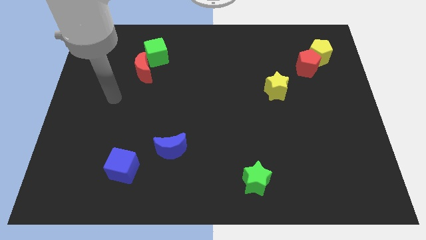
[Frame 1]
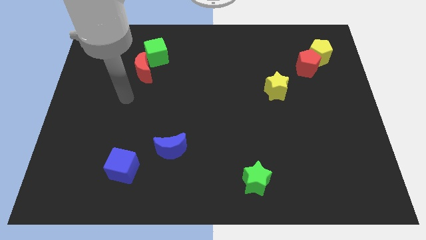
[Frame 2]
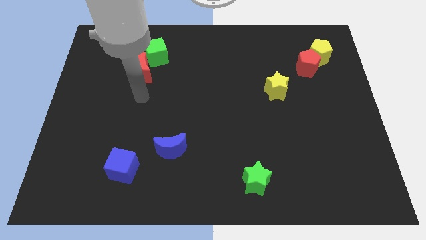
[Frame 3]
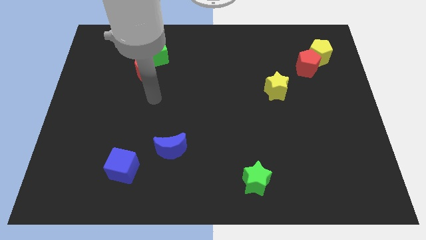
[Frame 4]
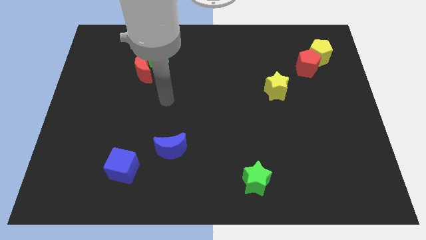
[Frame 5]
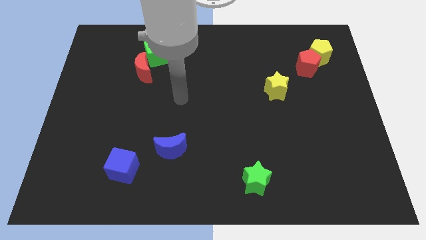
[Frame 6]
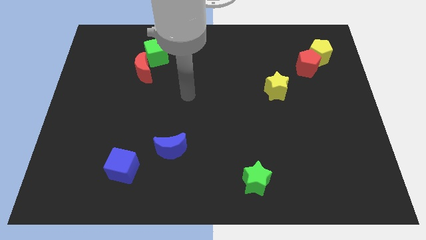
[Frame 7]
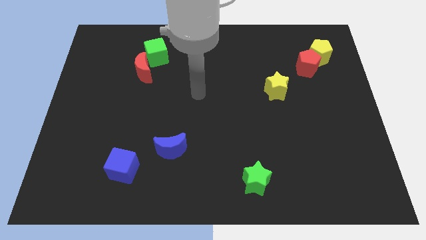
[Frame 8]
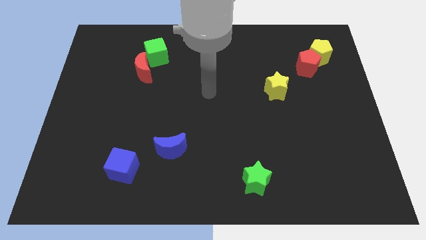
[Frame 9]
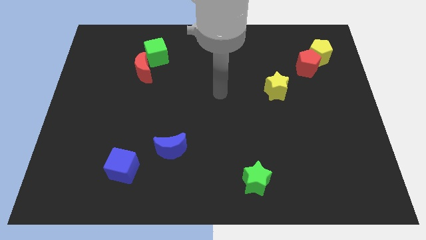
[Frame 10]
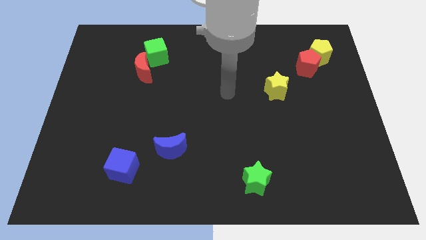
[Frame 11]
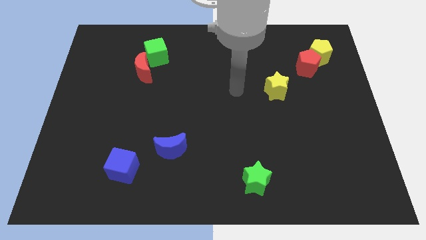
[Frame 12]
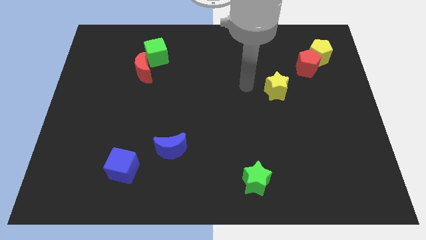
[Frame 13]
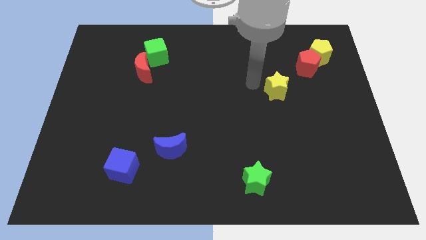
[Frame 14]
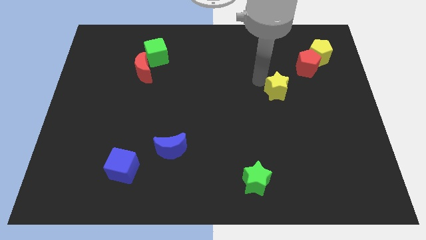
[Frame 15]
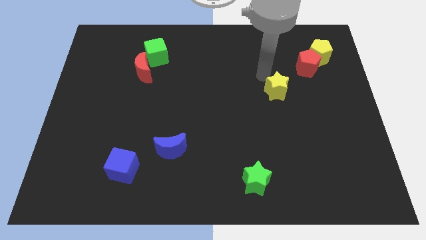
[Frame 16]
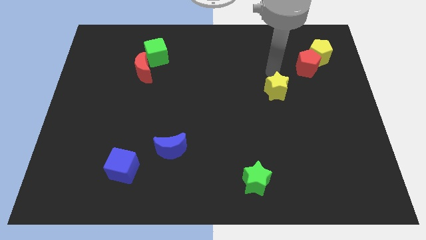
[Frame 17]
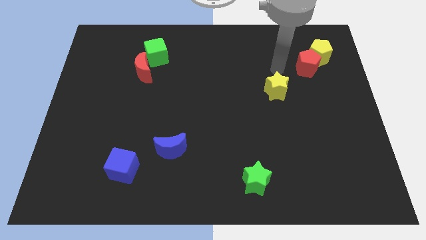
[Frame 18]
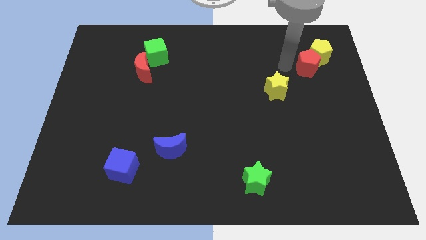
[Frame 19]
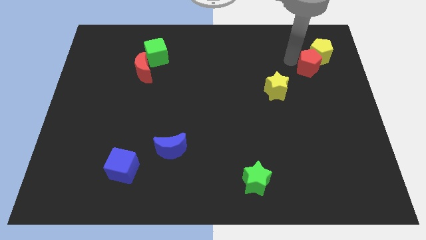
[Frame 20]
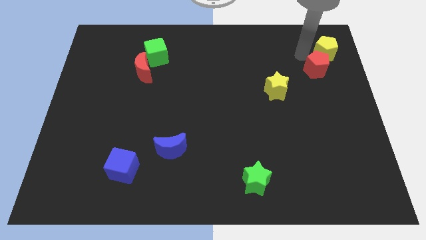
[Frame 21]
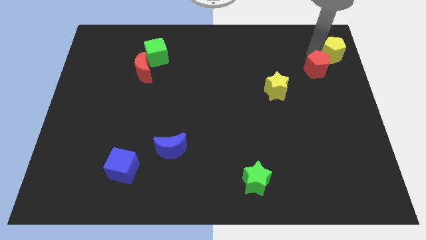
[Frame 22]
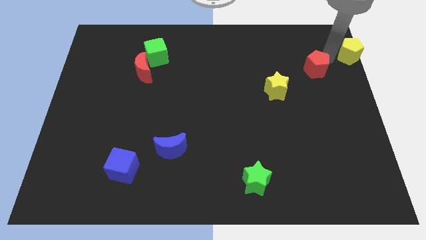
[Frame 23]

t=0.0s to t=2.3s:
move the red pentagon away from the yellow pentagon

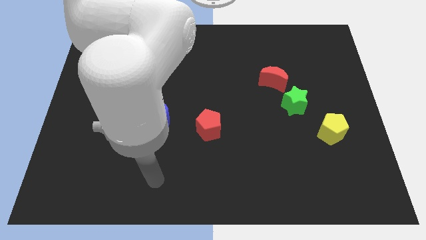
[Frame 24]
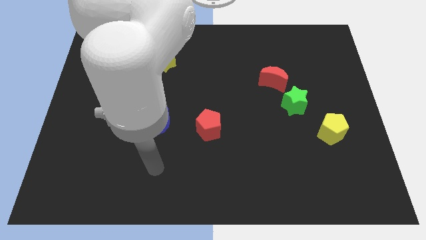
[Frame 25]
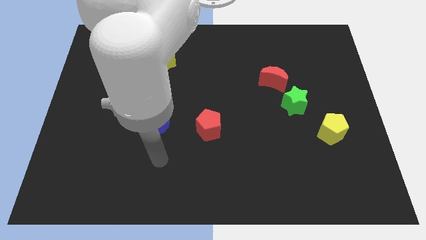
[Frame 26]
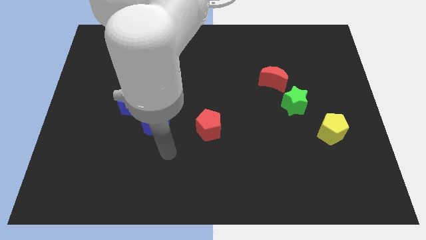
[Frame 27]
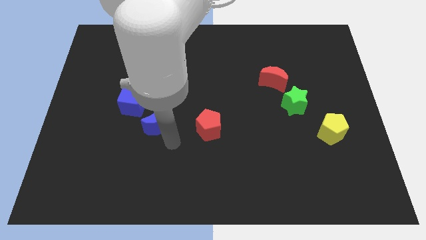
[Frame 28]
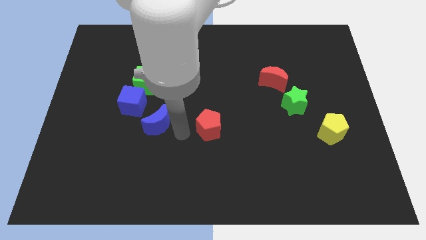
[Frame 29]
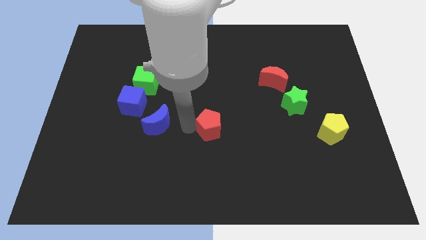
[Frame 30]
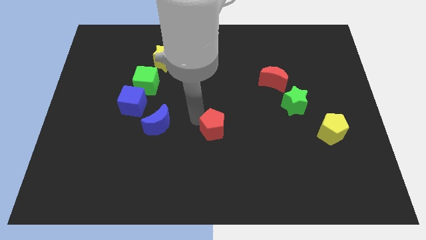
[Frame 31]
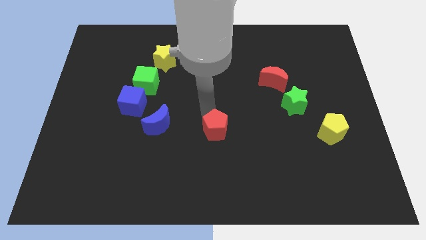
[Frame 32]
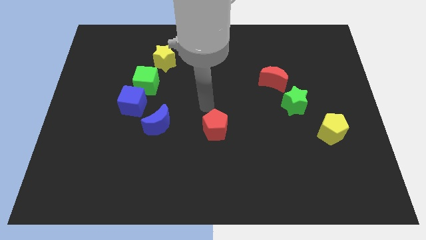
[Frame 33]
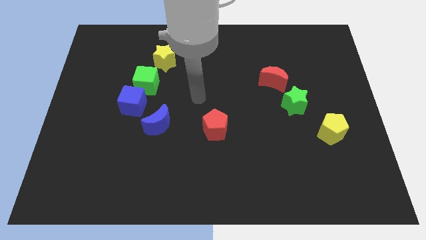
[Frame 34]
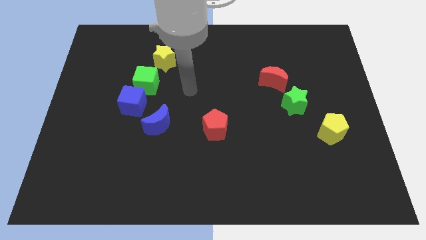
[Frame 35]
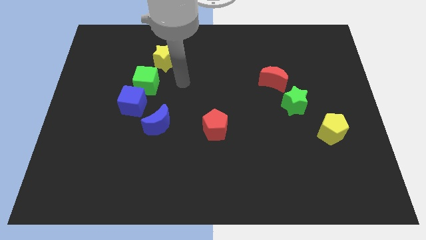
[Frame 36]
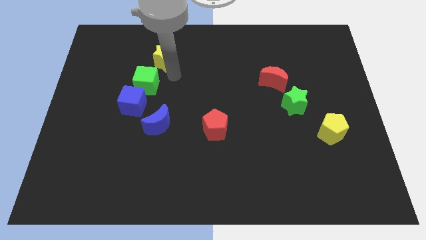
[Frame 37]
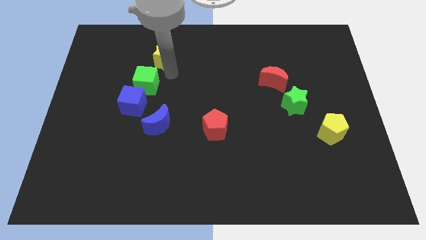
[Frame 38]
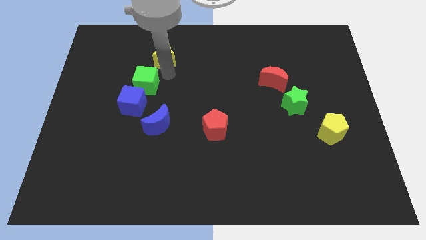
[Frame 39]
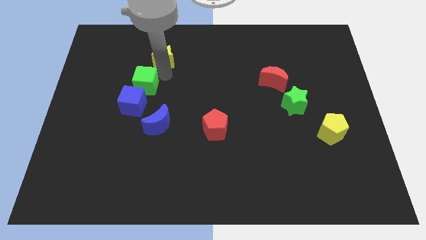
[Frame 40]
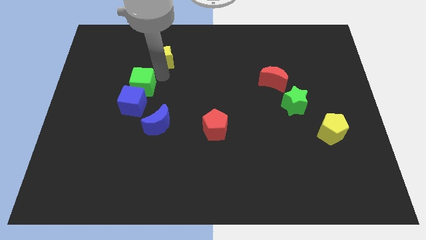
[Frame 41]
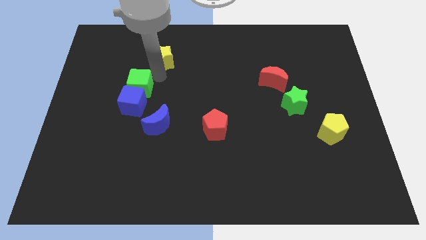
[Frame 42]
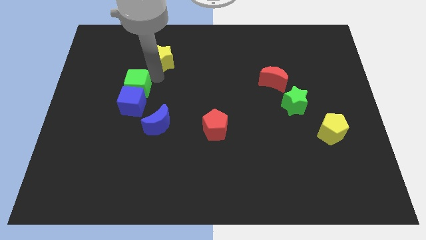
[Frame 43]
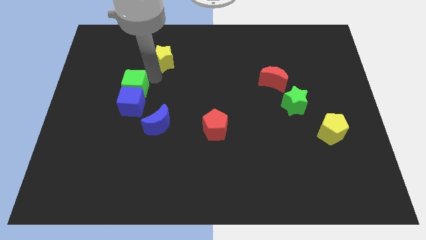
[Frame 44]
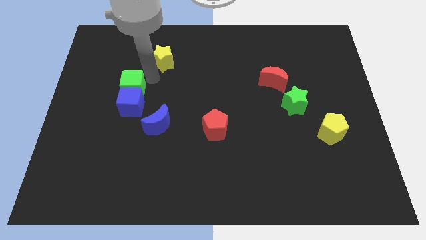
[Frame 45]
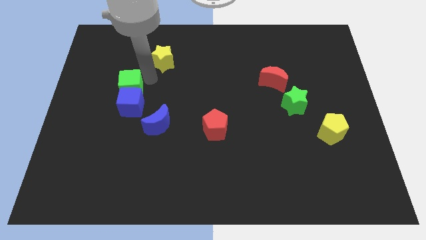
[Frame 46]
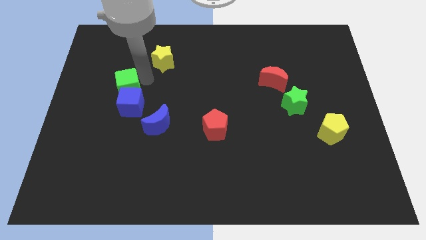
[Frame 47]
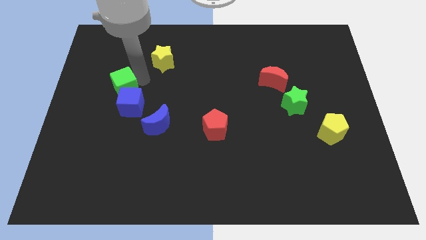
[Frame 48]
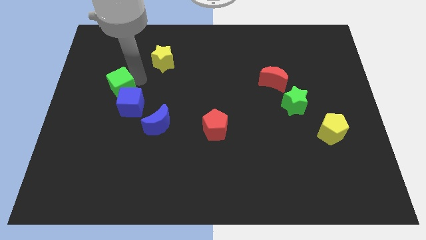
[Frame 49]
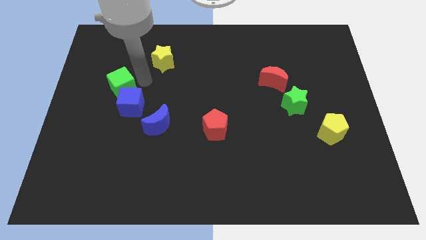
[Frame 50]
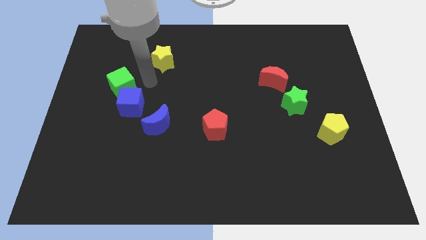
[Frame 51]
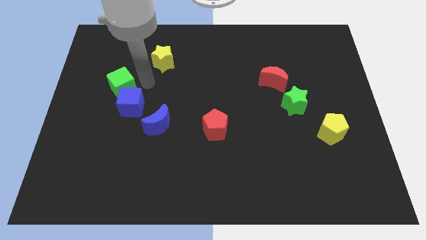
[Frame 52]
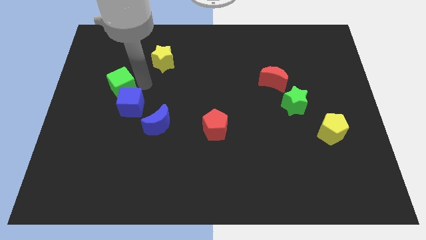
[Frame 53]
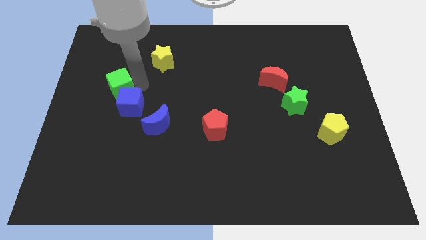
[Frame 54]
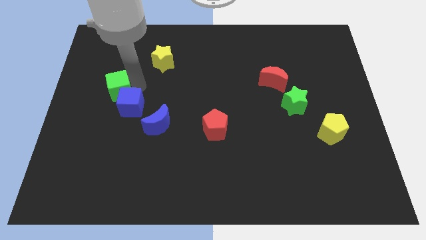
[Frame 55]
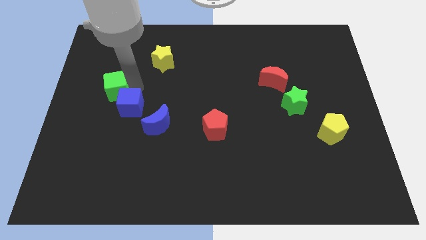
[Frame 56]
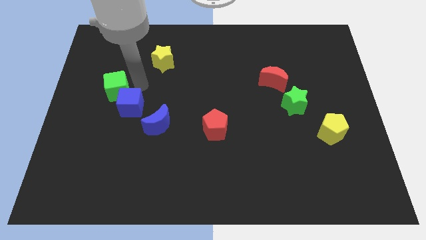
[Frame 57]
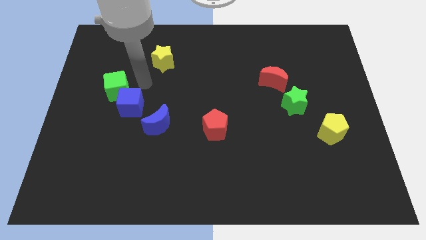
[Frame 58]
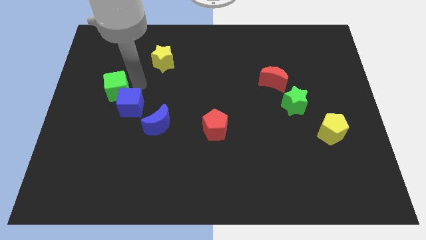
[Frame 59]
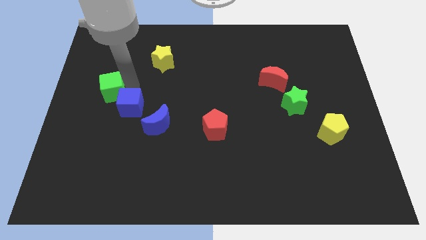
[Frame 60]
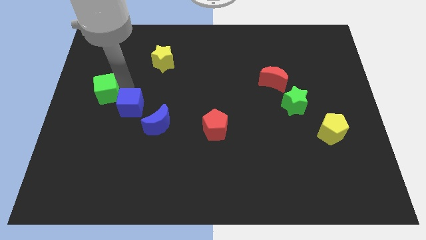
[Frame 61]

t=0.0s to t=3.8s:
separate the green cube from the blue cube and yellow star

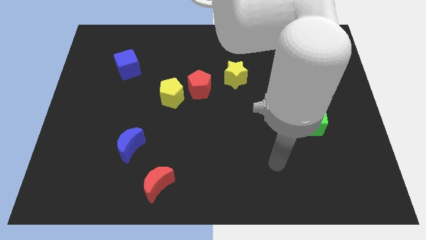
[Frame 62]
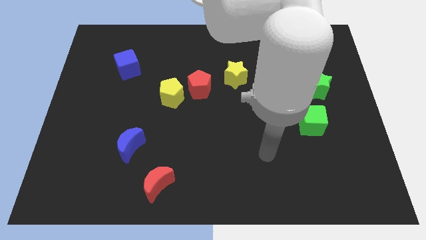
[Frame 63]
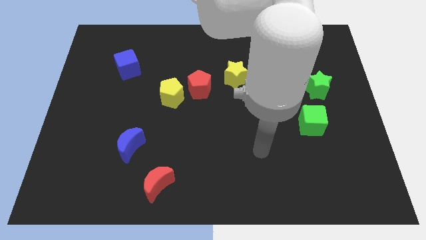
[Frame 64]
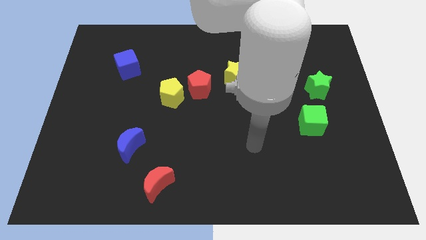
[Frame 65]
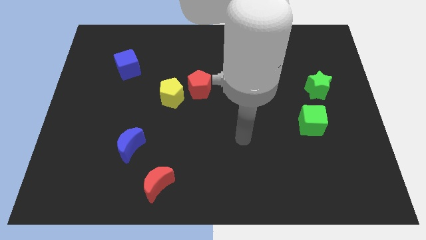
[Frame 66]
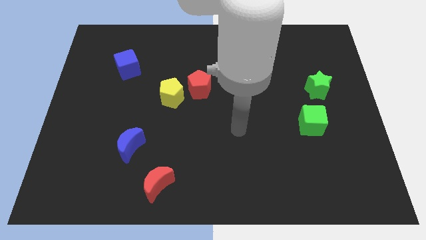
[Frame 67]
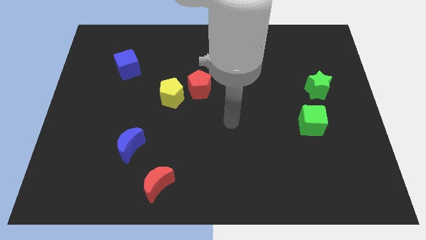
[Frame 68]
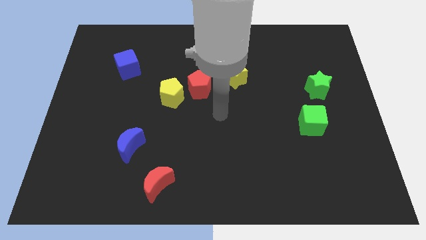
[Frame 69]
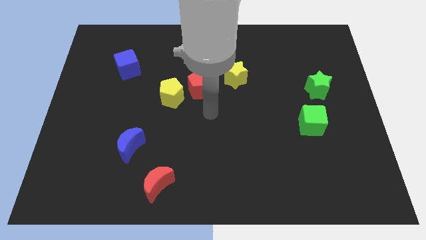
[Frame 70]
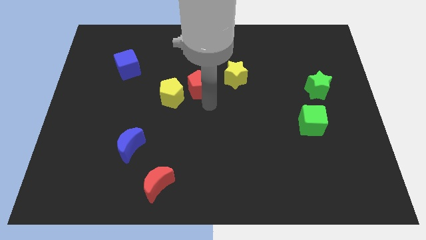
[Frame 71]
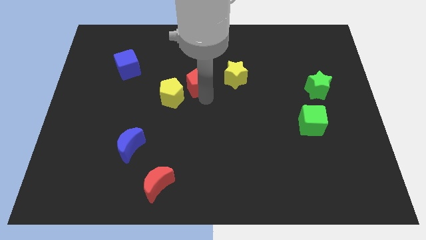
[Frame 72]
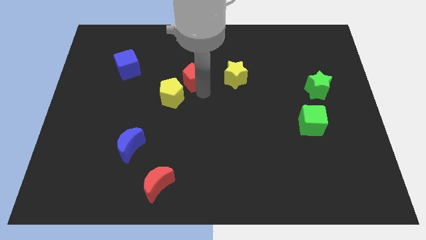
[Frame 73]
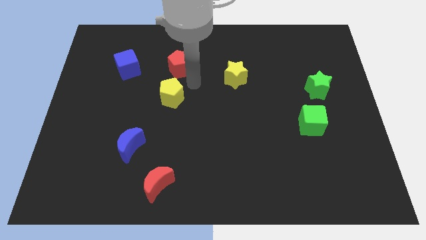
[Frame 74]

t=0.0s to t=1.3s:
move the yellow pentagon away from the red pentagon

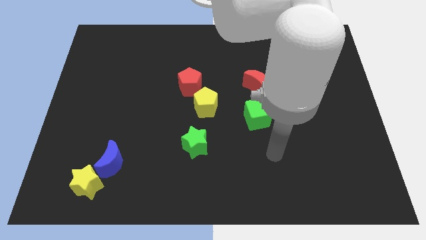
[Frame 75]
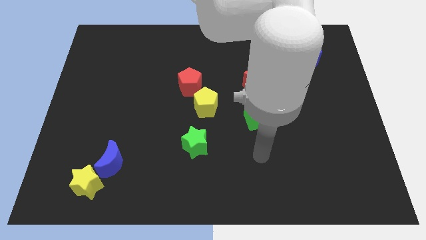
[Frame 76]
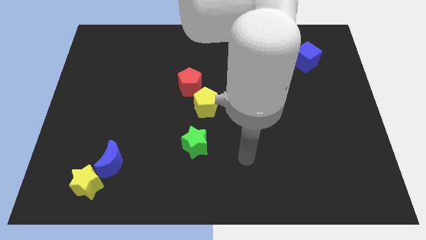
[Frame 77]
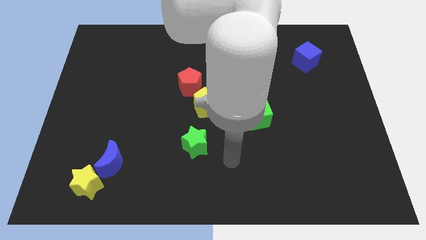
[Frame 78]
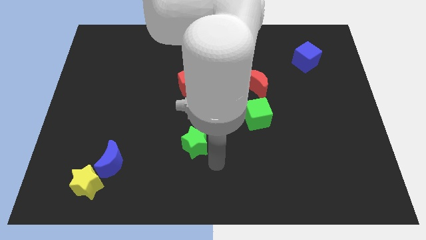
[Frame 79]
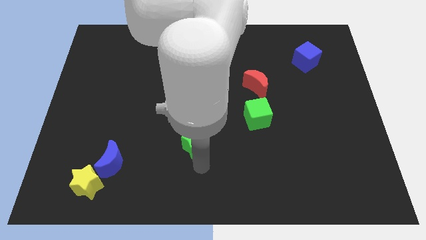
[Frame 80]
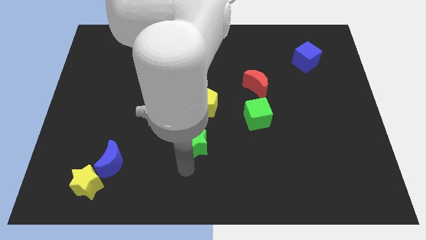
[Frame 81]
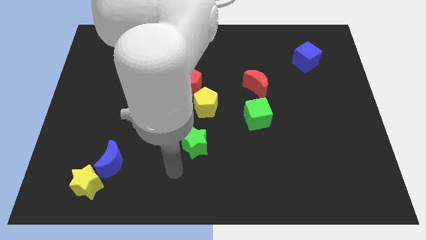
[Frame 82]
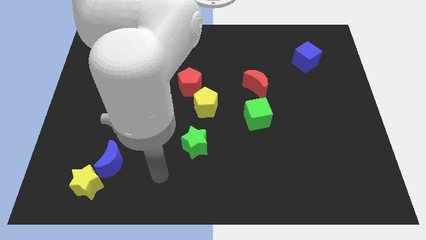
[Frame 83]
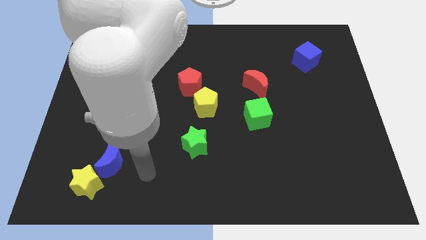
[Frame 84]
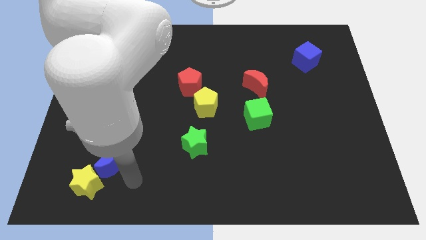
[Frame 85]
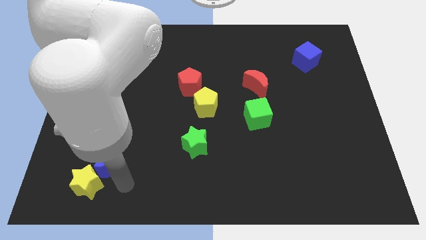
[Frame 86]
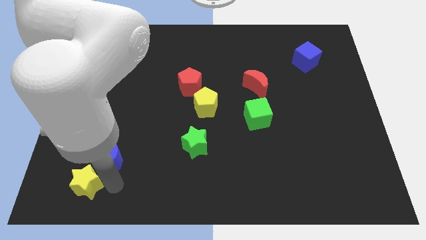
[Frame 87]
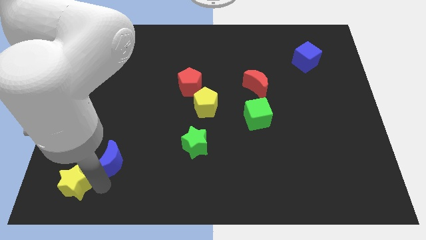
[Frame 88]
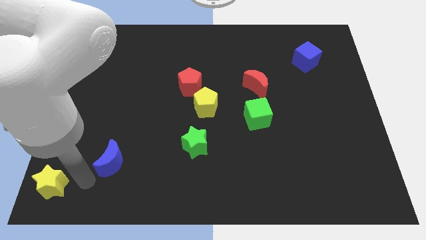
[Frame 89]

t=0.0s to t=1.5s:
separate the blue moon from the yellow star

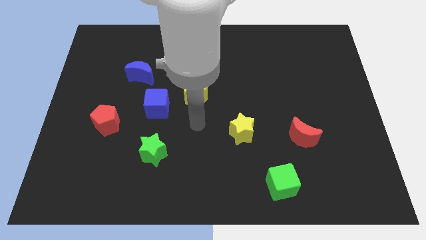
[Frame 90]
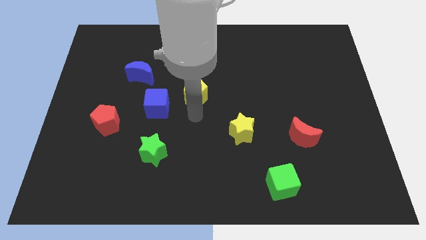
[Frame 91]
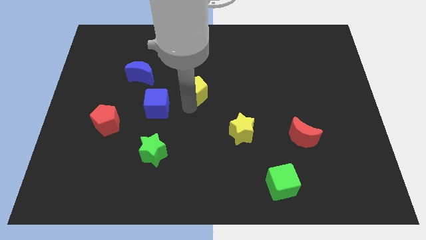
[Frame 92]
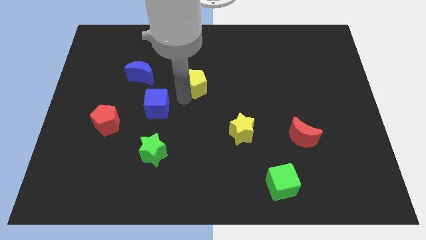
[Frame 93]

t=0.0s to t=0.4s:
move the blue cube away from the yellow pentagon
